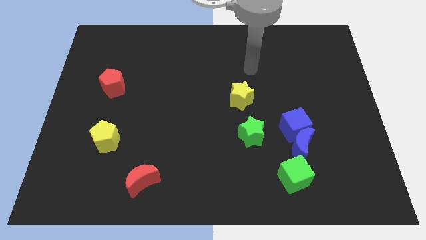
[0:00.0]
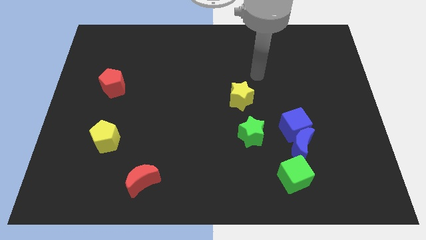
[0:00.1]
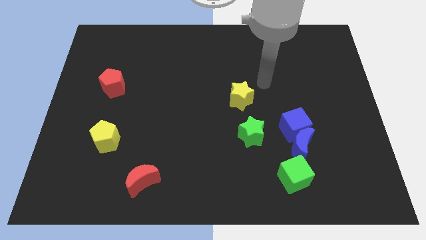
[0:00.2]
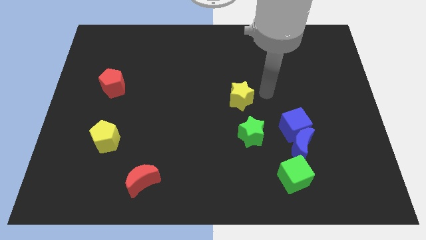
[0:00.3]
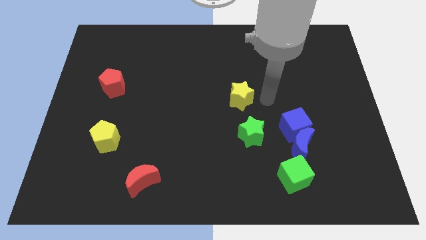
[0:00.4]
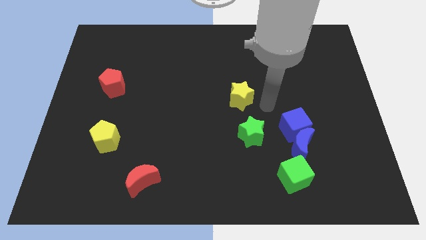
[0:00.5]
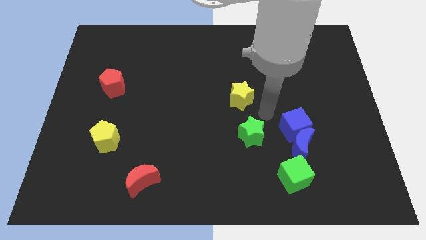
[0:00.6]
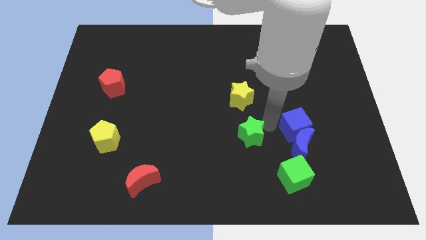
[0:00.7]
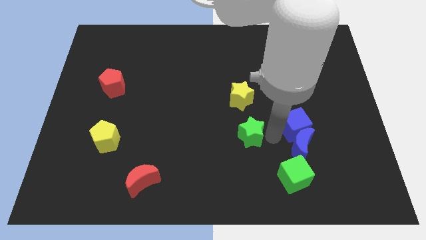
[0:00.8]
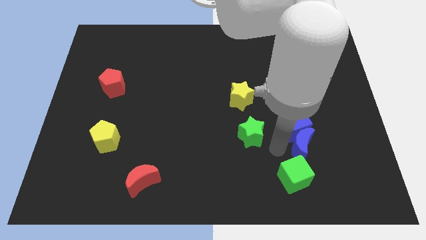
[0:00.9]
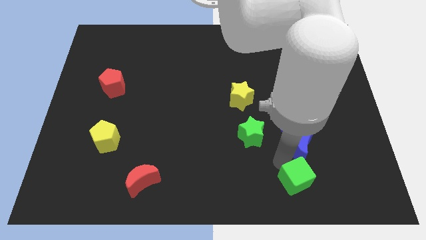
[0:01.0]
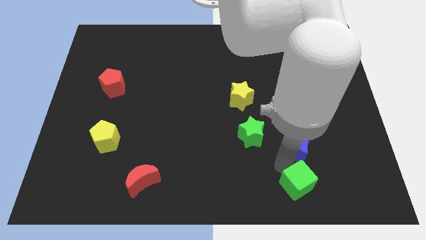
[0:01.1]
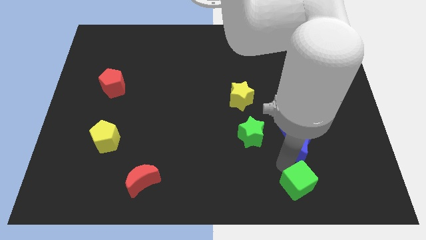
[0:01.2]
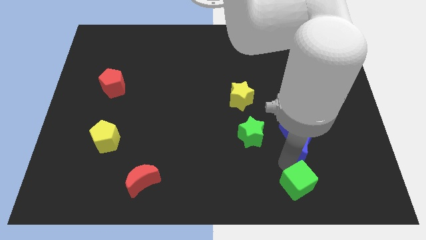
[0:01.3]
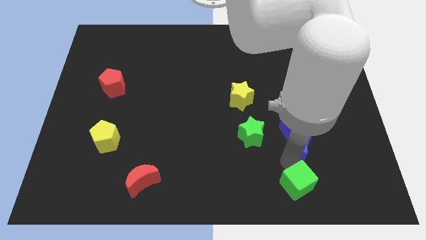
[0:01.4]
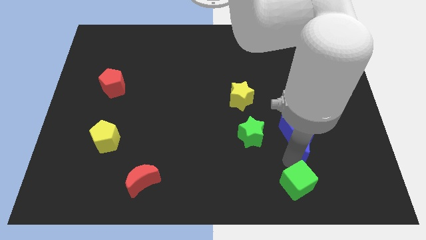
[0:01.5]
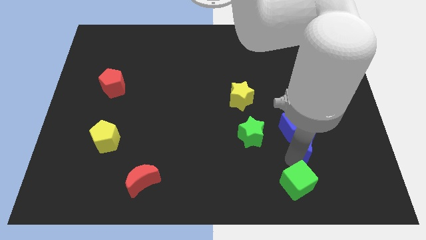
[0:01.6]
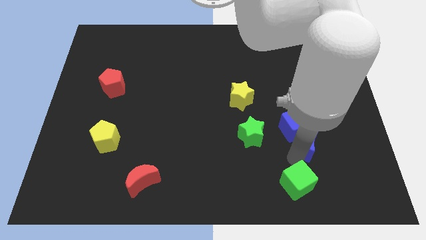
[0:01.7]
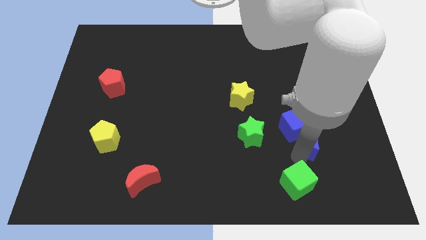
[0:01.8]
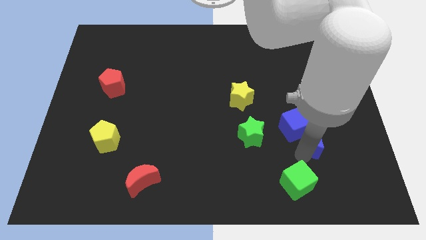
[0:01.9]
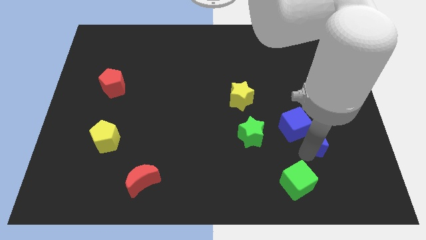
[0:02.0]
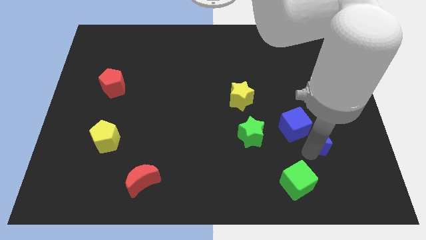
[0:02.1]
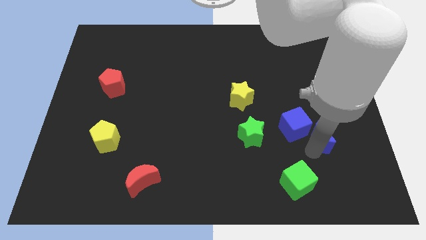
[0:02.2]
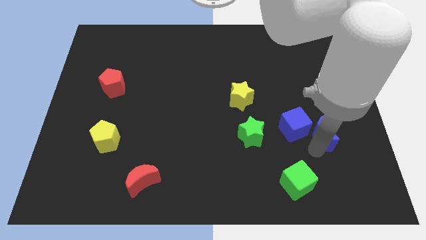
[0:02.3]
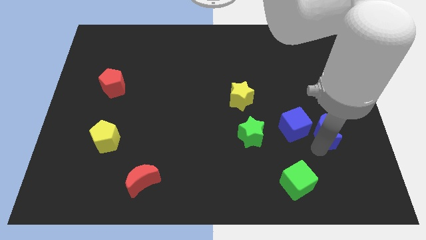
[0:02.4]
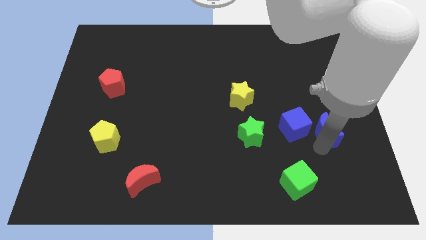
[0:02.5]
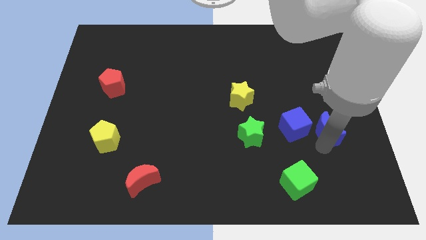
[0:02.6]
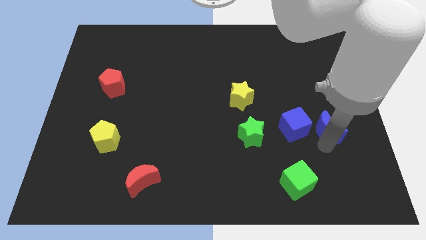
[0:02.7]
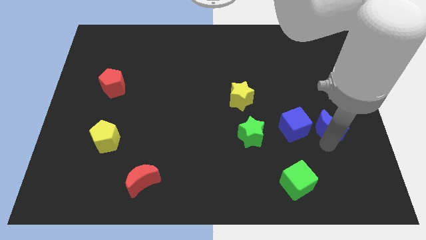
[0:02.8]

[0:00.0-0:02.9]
pull the blue moon apart from the blue cube and green cube

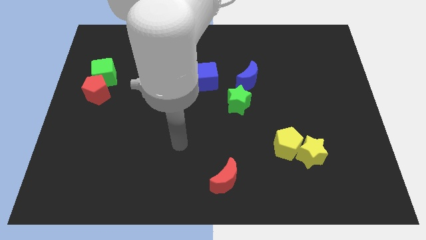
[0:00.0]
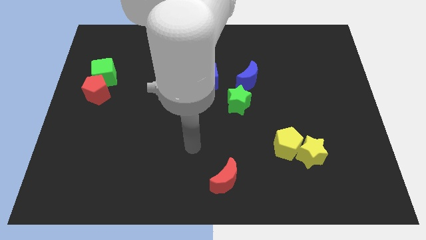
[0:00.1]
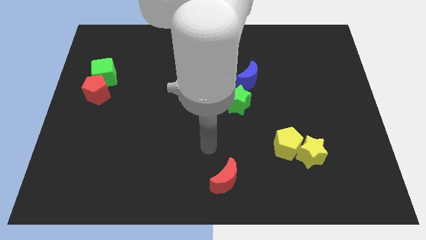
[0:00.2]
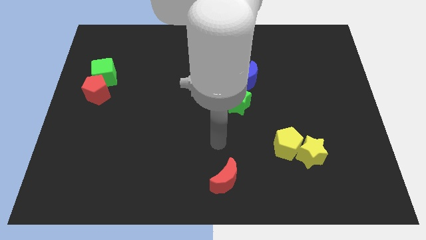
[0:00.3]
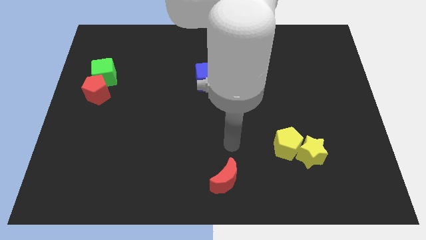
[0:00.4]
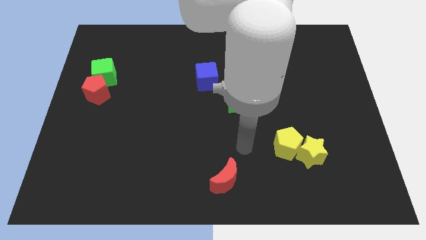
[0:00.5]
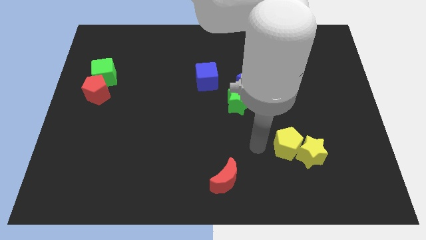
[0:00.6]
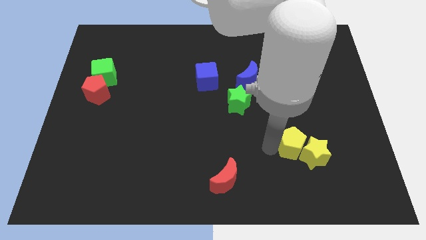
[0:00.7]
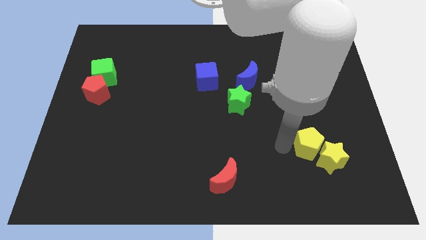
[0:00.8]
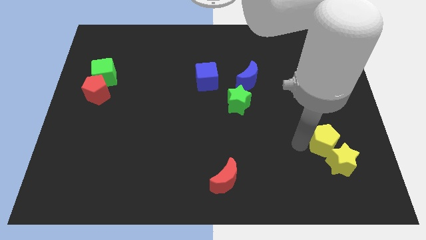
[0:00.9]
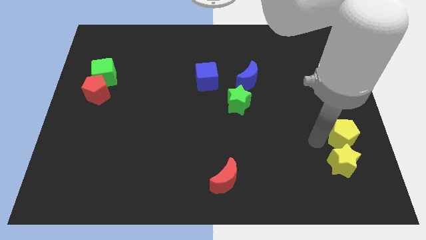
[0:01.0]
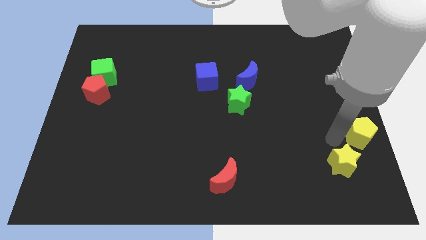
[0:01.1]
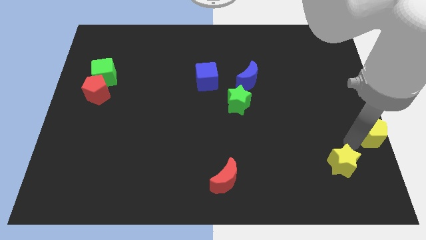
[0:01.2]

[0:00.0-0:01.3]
separate the yellow star from the yellow pentagon

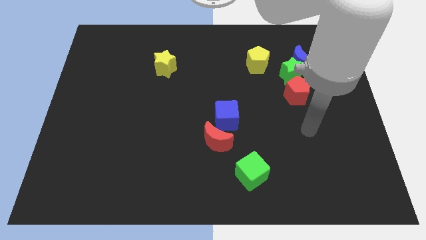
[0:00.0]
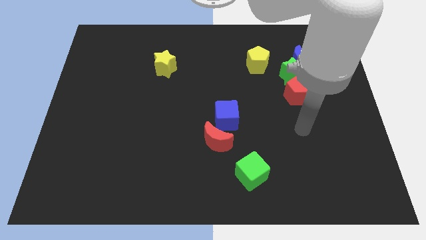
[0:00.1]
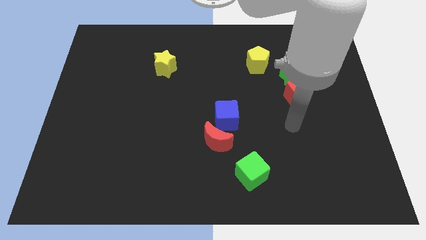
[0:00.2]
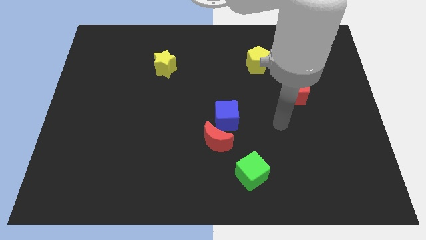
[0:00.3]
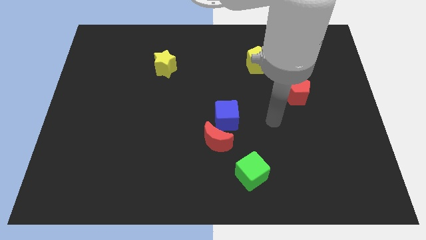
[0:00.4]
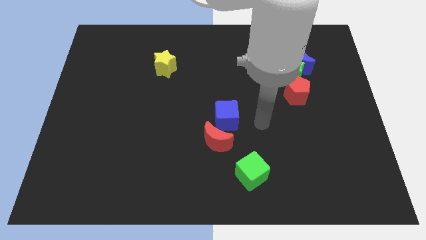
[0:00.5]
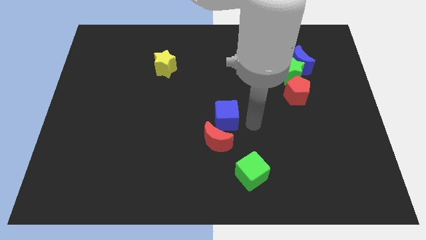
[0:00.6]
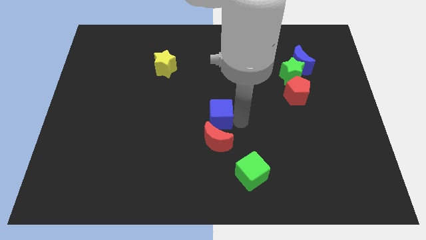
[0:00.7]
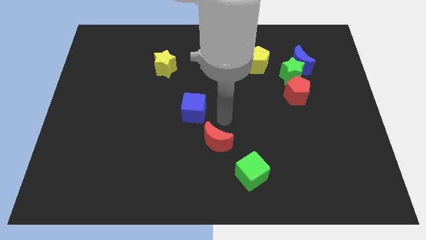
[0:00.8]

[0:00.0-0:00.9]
pull the red moon apart from the blue cube

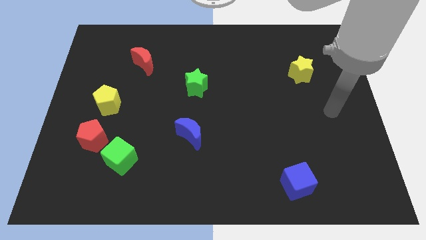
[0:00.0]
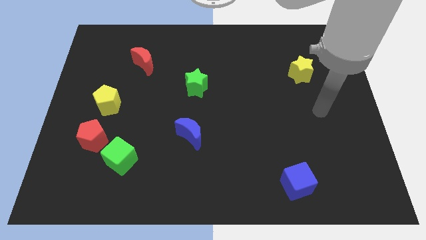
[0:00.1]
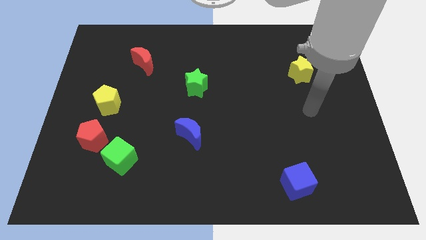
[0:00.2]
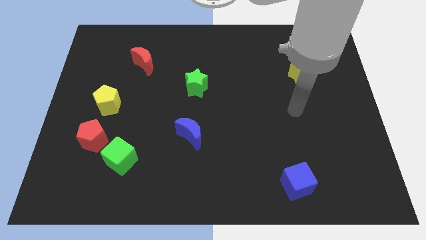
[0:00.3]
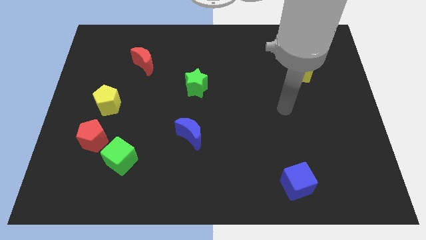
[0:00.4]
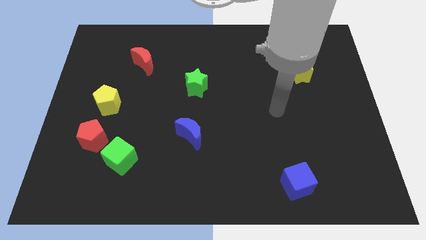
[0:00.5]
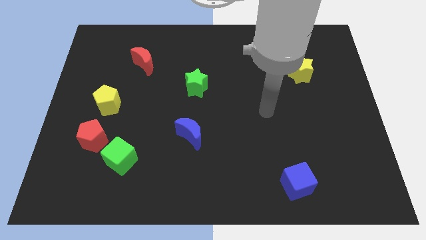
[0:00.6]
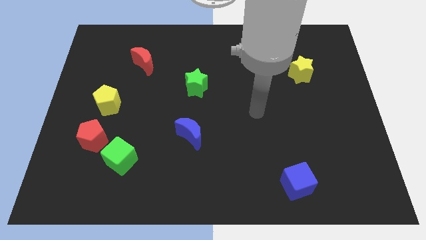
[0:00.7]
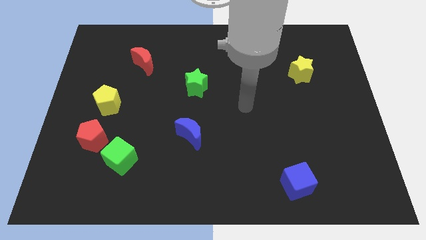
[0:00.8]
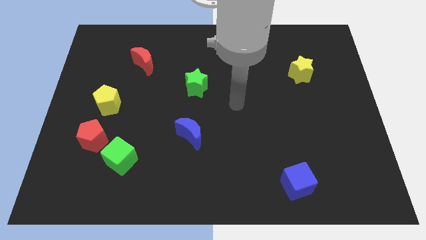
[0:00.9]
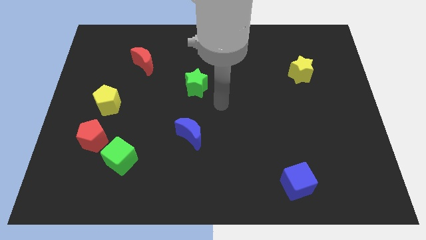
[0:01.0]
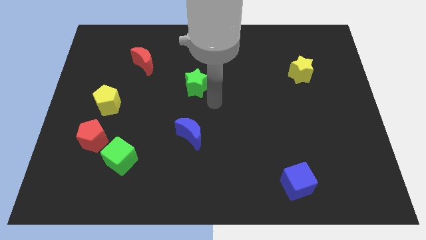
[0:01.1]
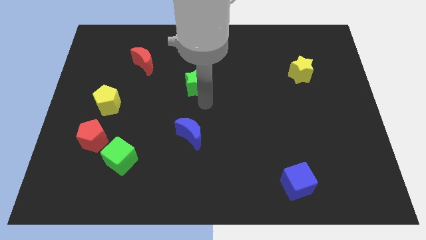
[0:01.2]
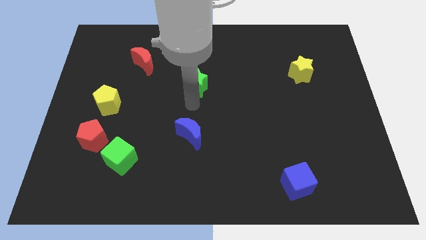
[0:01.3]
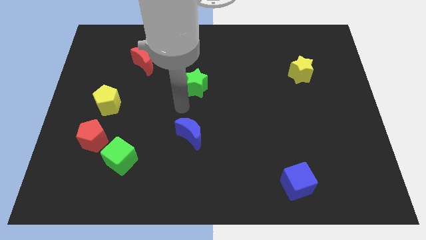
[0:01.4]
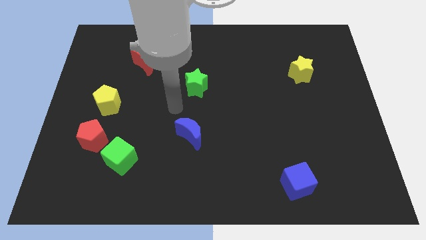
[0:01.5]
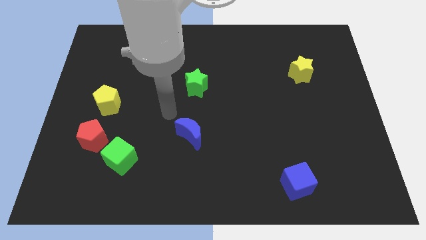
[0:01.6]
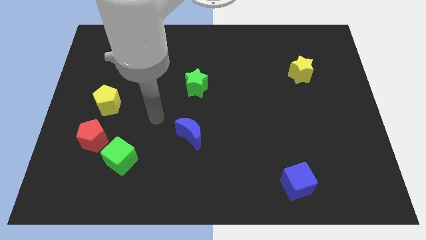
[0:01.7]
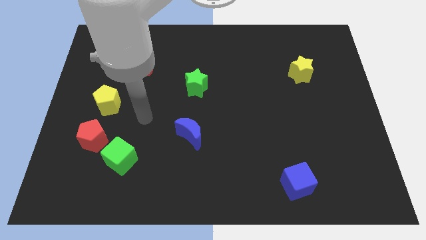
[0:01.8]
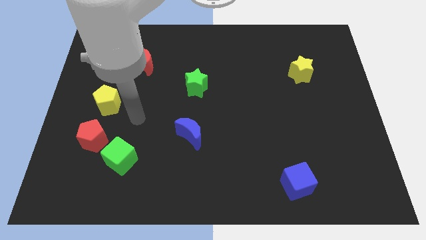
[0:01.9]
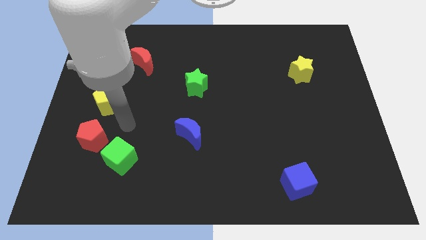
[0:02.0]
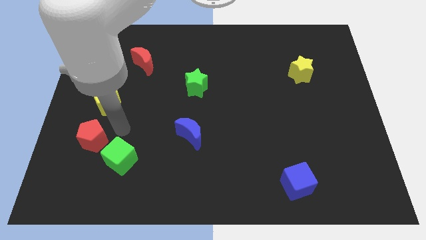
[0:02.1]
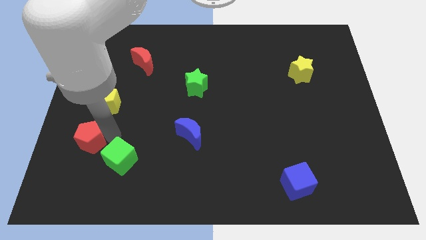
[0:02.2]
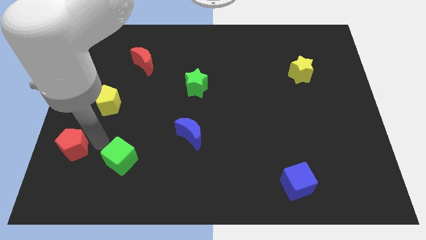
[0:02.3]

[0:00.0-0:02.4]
pull the green cube apart from the red pentagon

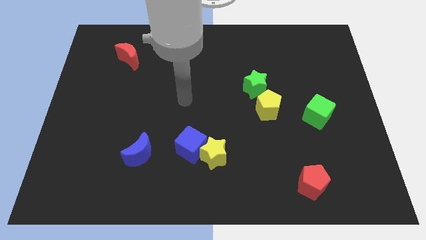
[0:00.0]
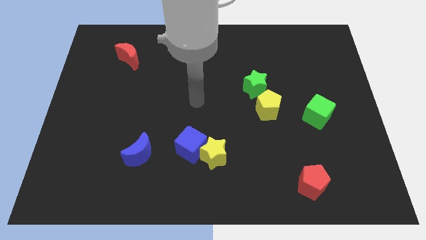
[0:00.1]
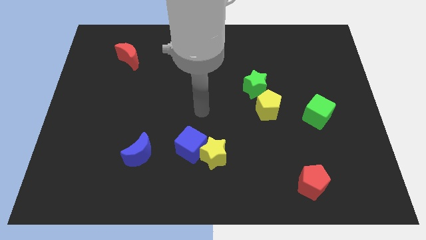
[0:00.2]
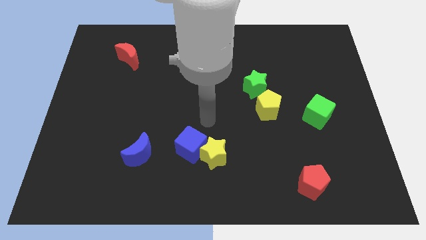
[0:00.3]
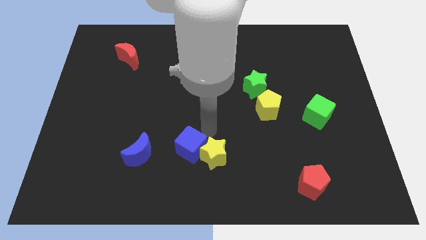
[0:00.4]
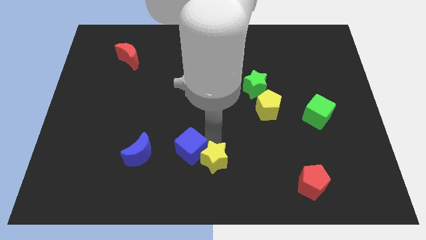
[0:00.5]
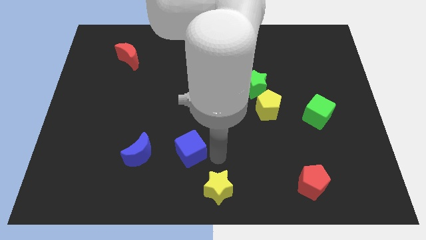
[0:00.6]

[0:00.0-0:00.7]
move the blue cube away from the yellow star

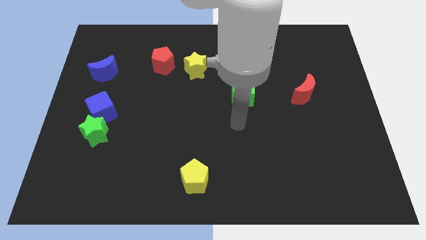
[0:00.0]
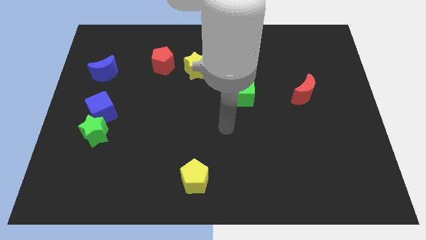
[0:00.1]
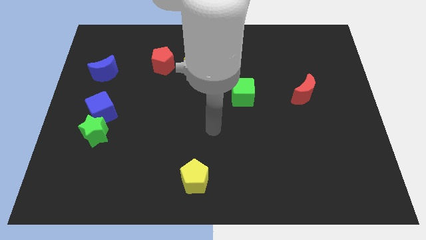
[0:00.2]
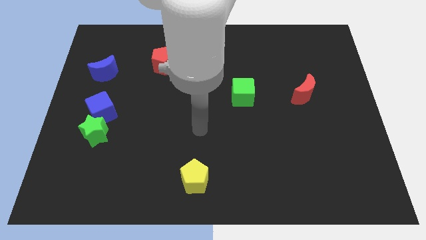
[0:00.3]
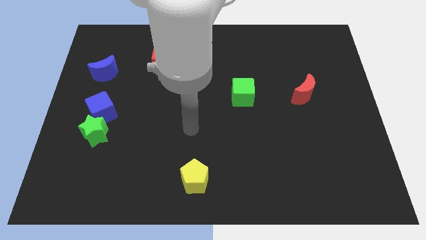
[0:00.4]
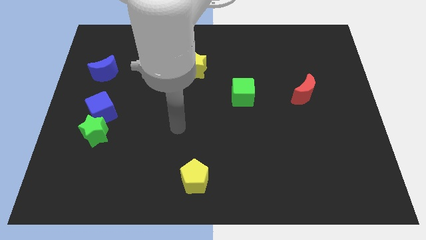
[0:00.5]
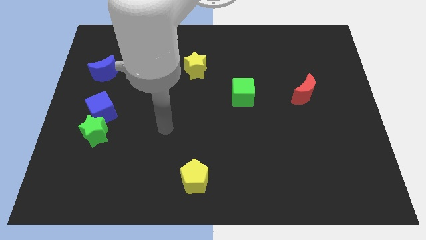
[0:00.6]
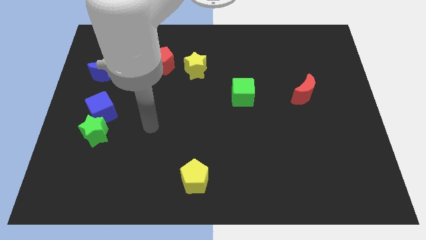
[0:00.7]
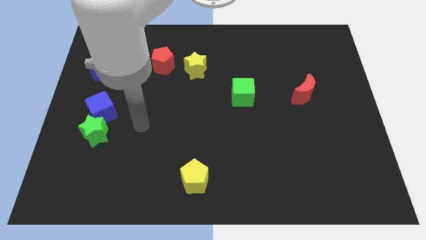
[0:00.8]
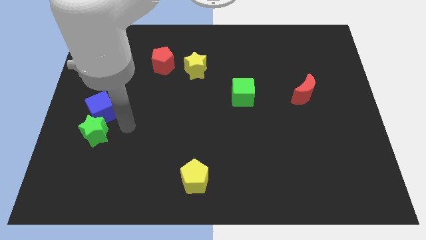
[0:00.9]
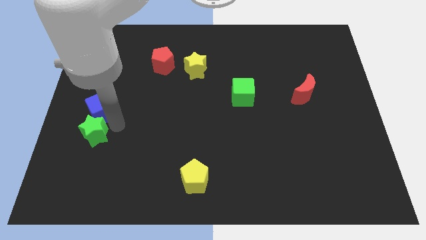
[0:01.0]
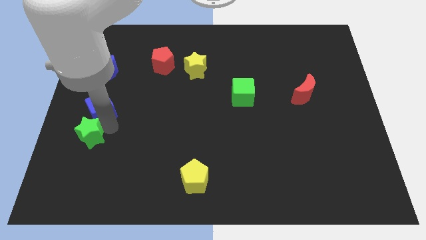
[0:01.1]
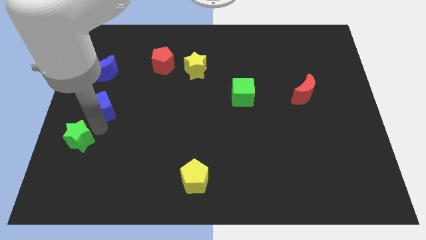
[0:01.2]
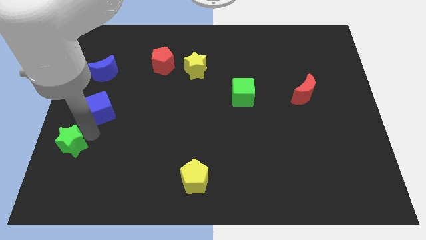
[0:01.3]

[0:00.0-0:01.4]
separate the blue cube from the green star
